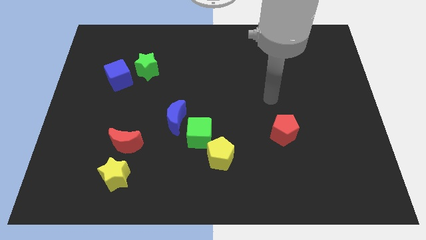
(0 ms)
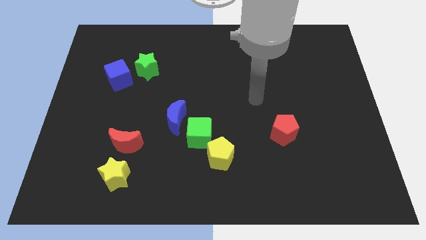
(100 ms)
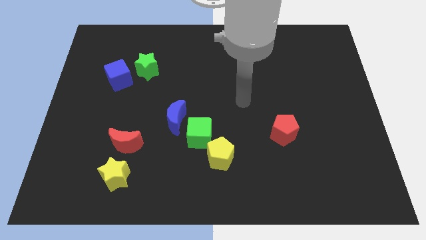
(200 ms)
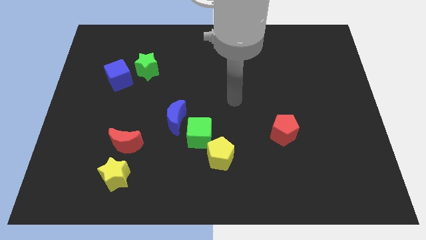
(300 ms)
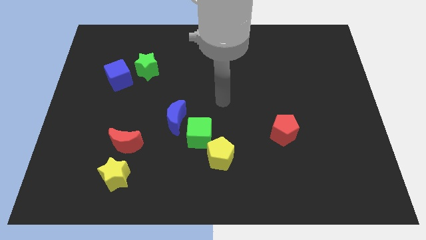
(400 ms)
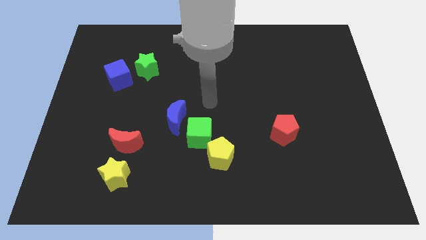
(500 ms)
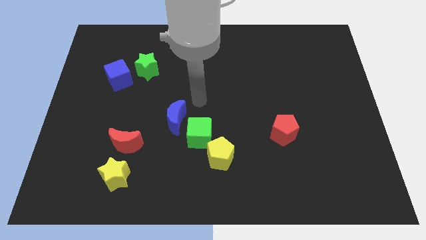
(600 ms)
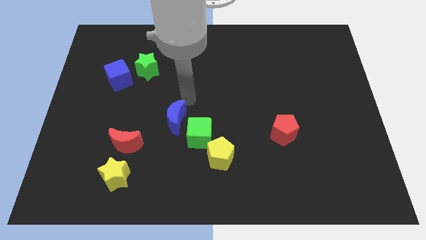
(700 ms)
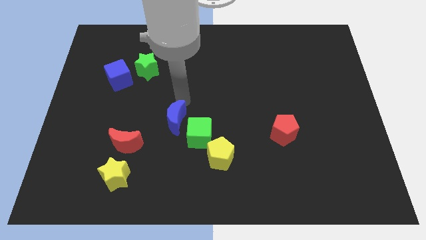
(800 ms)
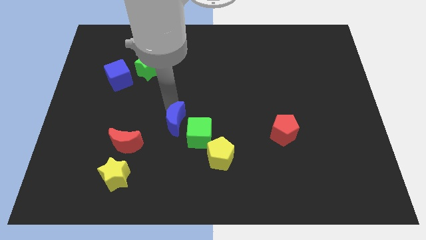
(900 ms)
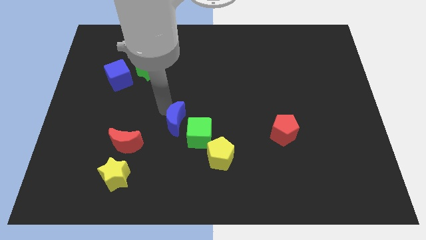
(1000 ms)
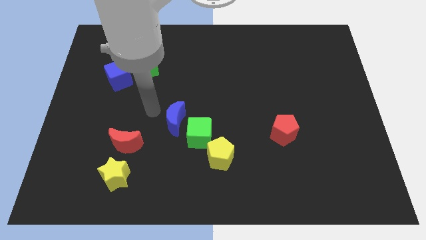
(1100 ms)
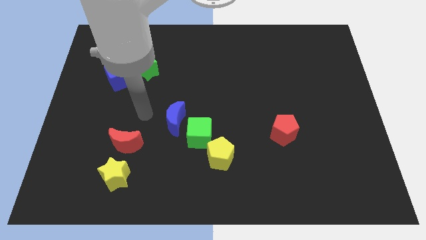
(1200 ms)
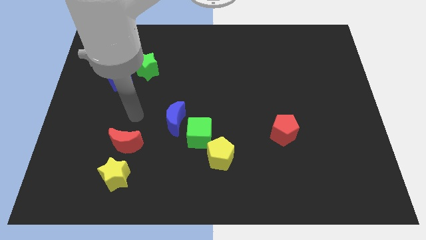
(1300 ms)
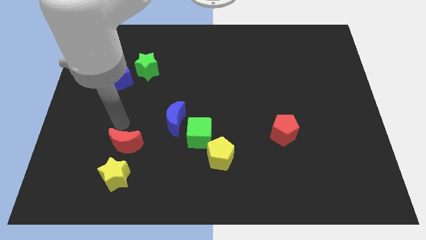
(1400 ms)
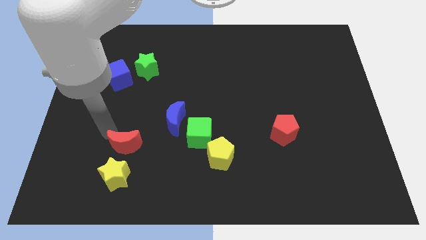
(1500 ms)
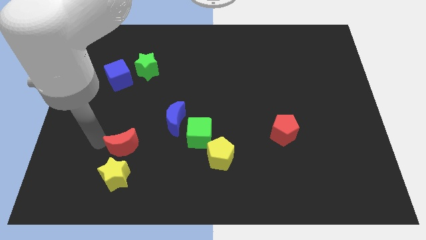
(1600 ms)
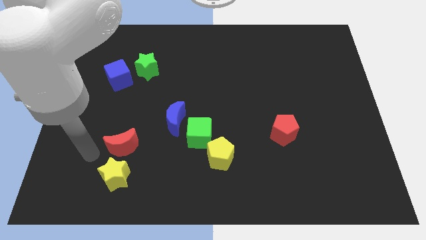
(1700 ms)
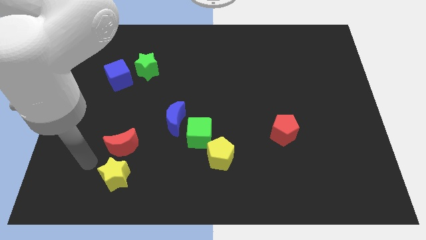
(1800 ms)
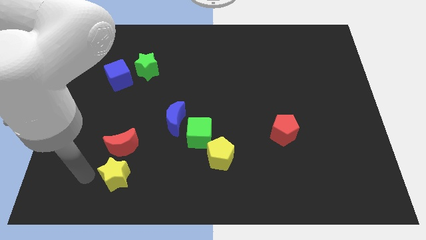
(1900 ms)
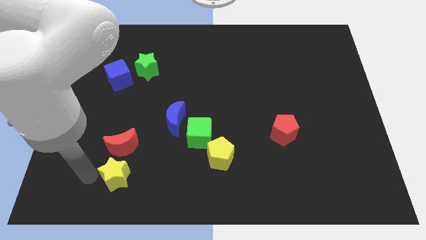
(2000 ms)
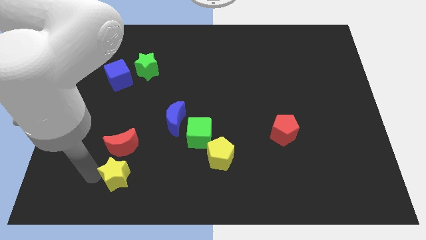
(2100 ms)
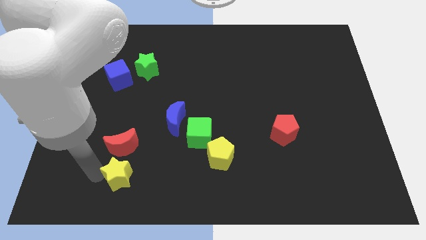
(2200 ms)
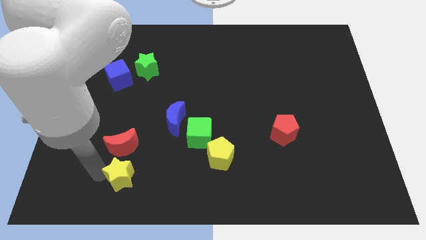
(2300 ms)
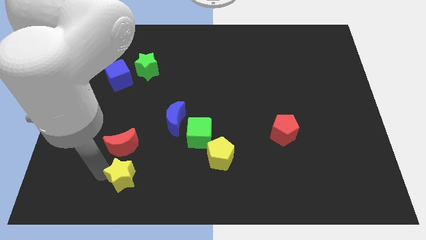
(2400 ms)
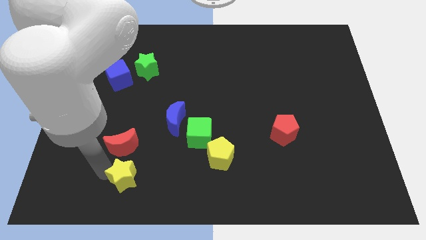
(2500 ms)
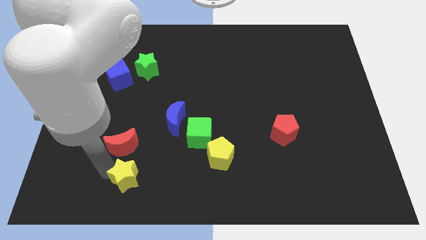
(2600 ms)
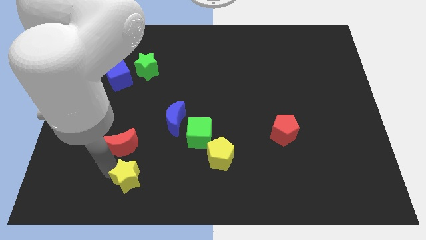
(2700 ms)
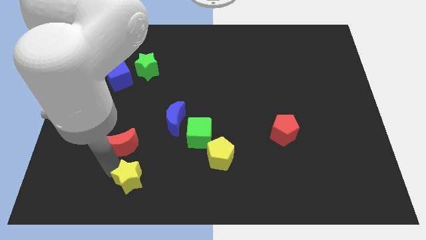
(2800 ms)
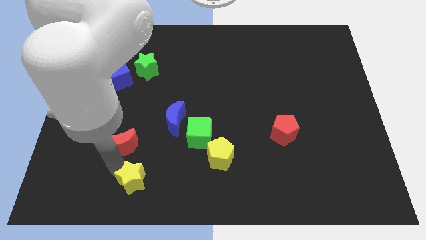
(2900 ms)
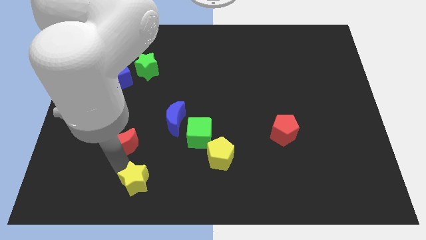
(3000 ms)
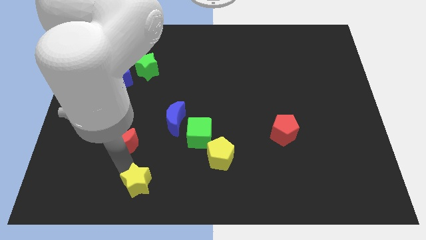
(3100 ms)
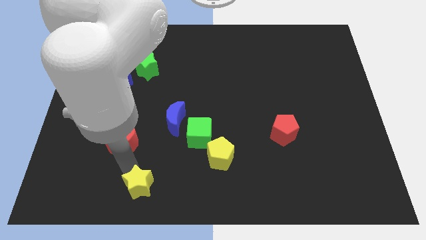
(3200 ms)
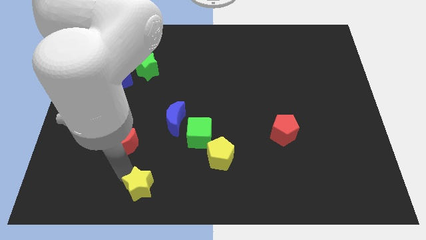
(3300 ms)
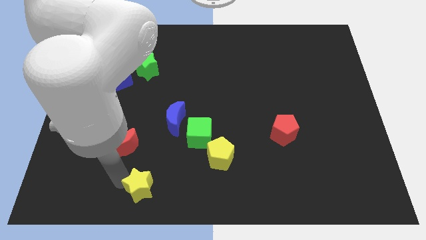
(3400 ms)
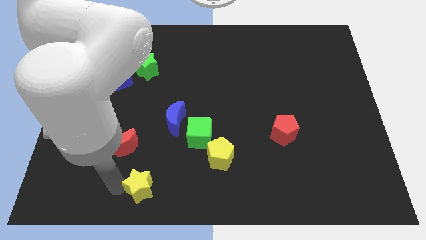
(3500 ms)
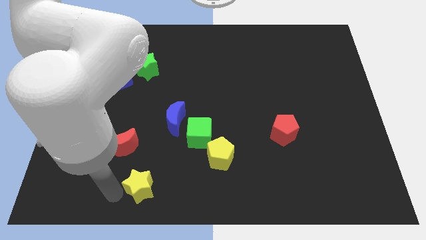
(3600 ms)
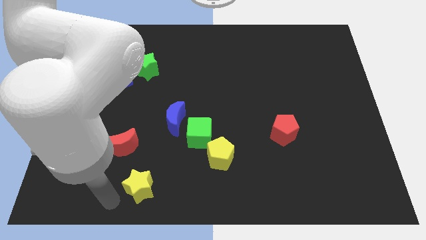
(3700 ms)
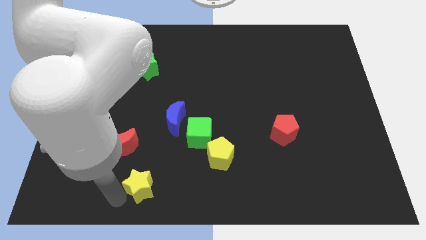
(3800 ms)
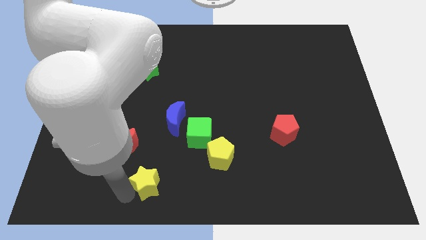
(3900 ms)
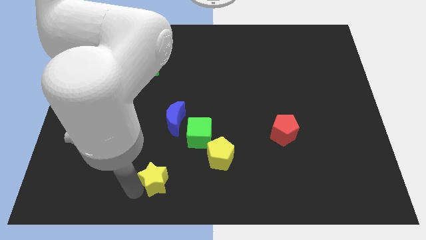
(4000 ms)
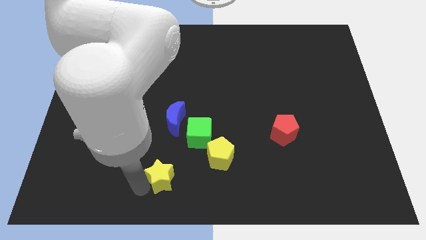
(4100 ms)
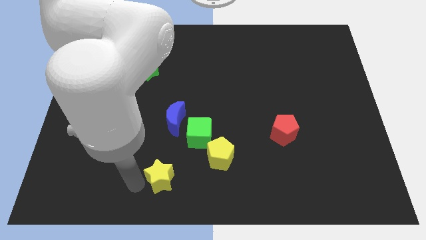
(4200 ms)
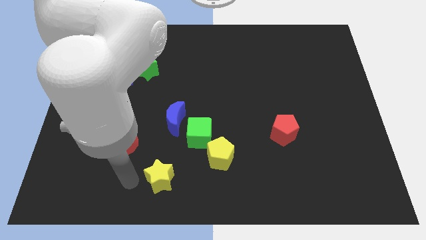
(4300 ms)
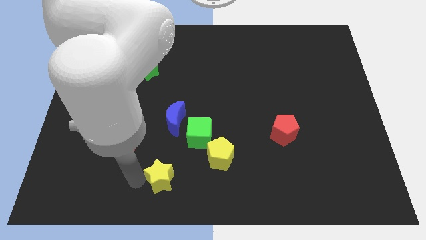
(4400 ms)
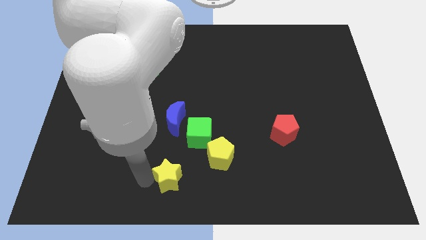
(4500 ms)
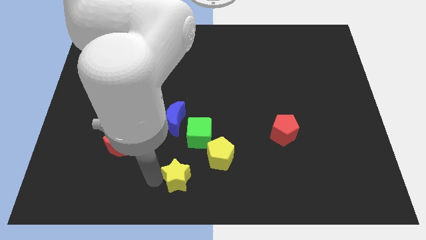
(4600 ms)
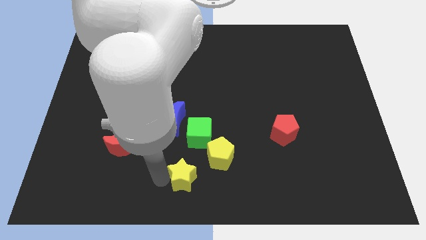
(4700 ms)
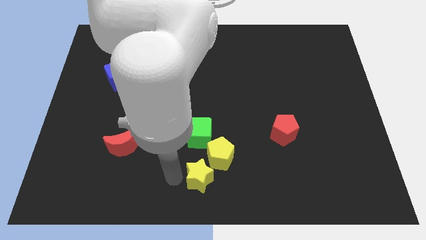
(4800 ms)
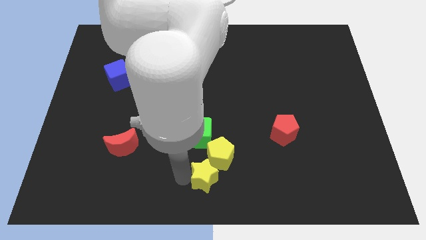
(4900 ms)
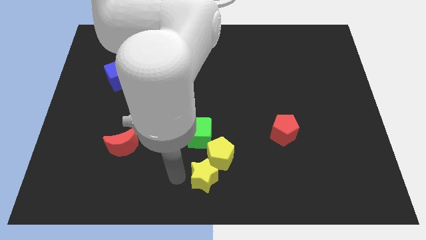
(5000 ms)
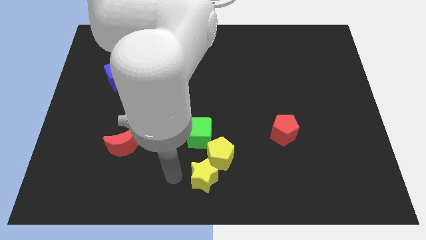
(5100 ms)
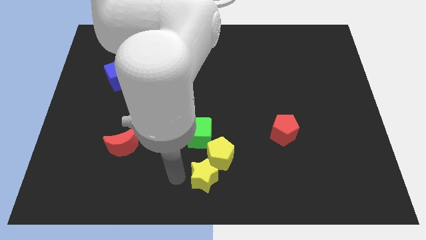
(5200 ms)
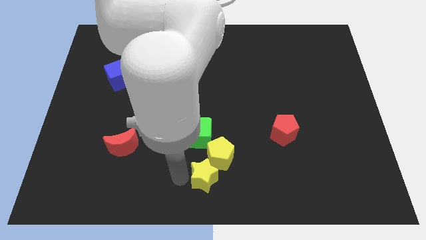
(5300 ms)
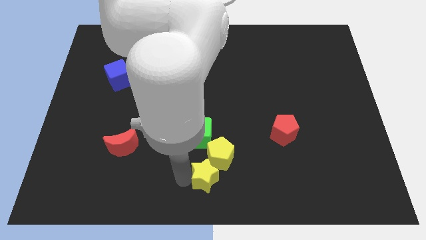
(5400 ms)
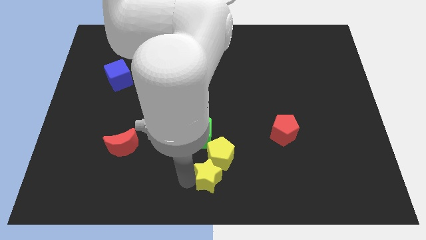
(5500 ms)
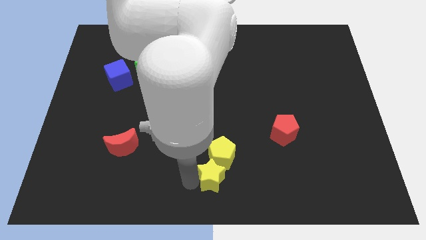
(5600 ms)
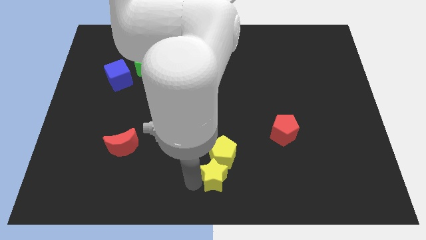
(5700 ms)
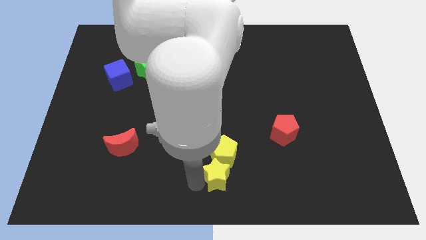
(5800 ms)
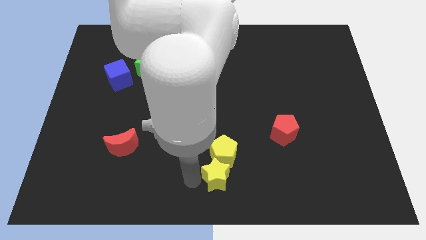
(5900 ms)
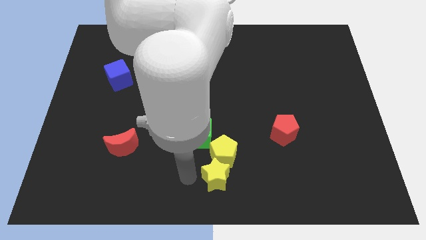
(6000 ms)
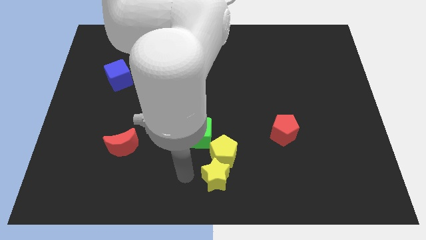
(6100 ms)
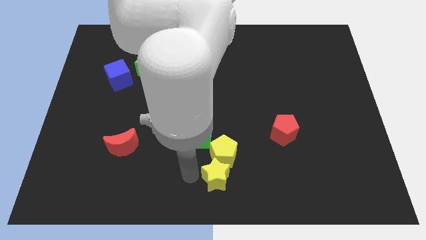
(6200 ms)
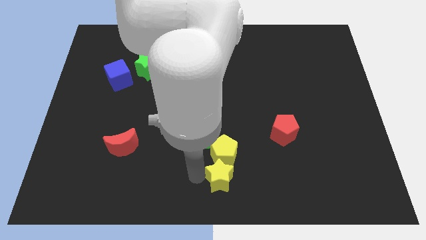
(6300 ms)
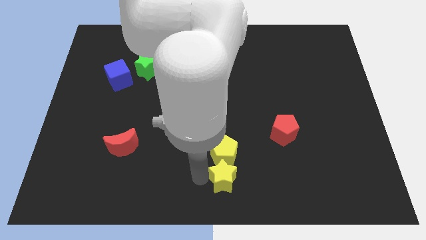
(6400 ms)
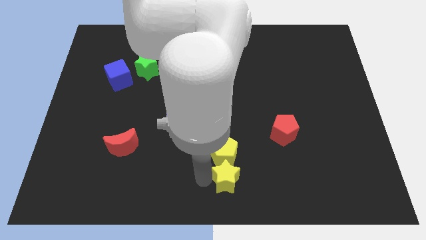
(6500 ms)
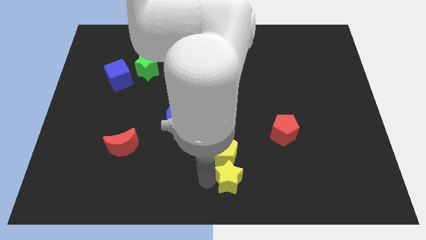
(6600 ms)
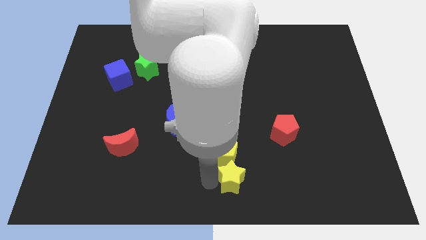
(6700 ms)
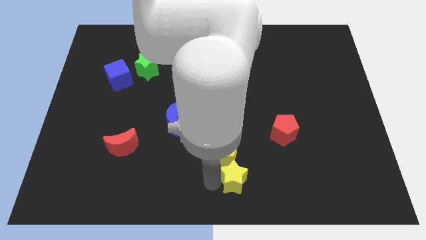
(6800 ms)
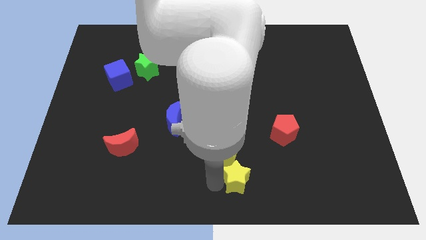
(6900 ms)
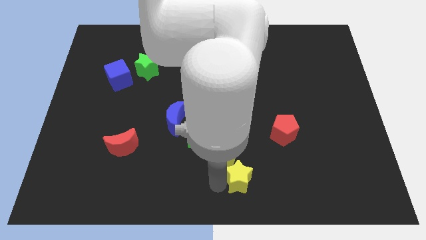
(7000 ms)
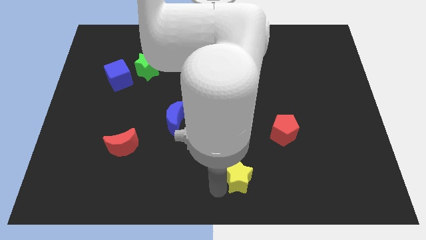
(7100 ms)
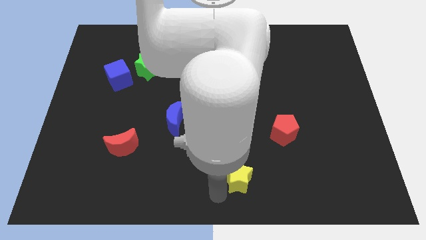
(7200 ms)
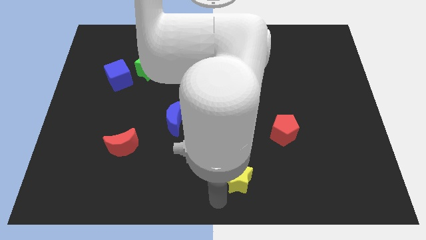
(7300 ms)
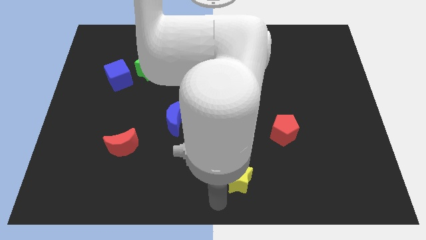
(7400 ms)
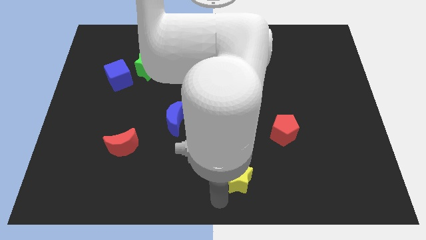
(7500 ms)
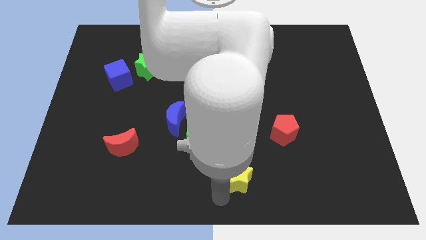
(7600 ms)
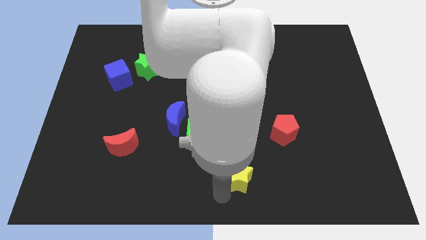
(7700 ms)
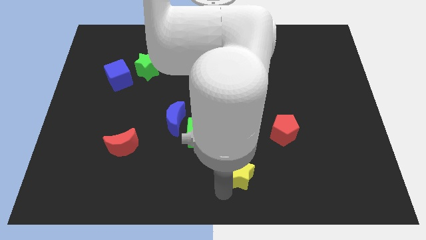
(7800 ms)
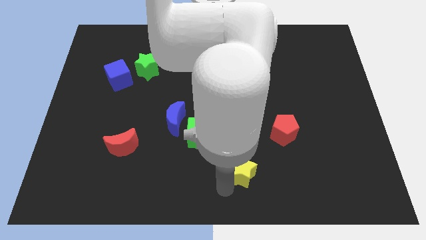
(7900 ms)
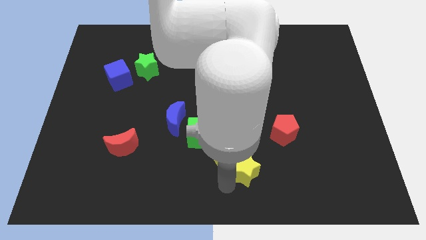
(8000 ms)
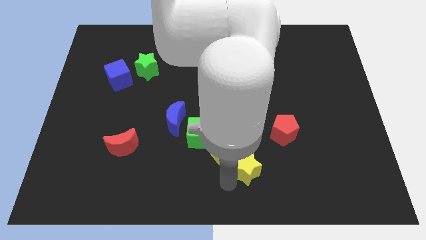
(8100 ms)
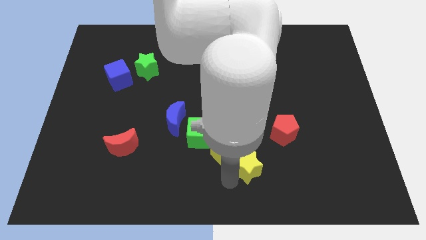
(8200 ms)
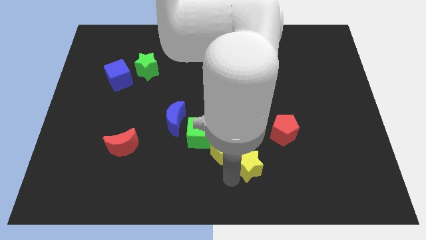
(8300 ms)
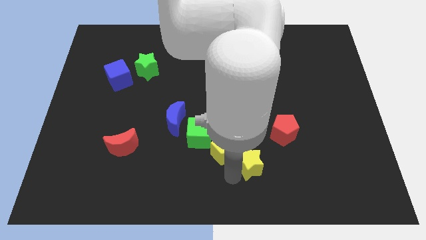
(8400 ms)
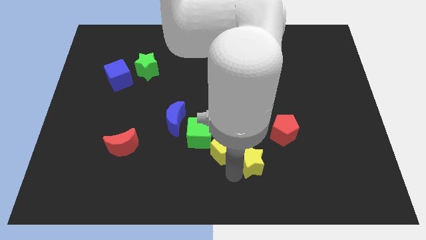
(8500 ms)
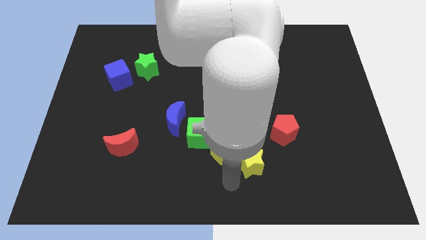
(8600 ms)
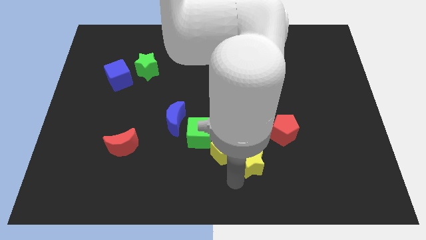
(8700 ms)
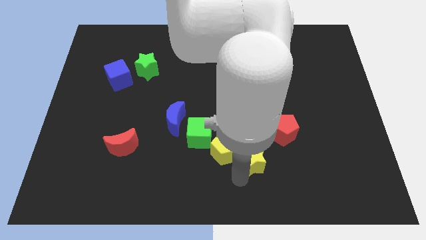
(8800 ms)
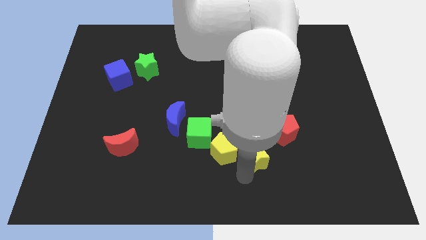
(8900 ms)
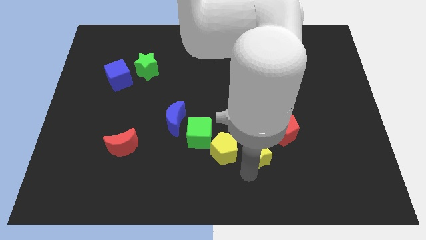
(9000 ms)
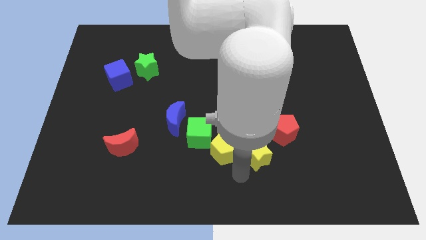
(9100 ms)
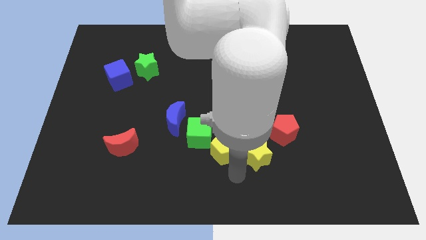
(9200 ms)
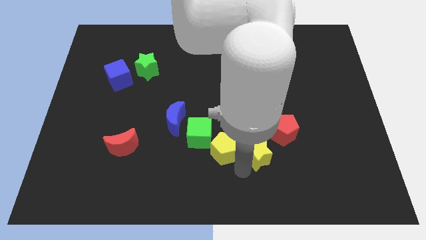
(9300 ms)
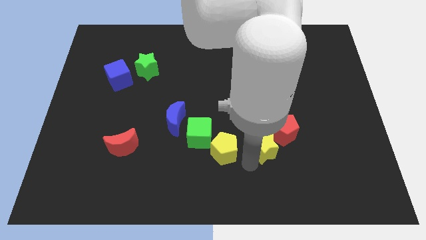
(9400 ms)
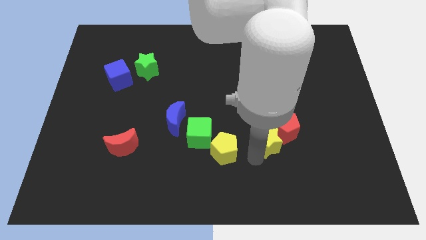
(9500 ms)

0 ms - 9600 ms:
move the yellow star close to the red pentagon
